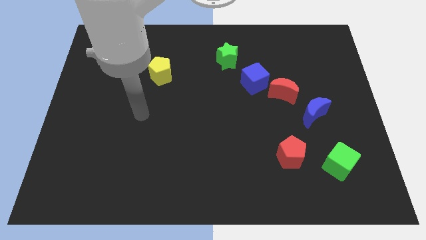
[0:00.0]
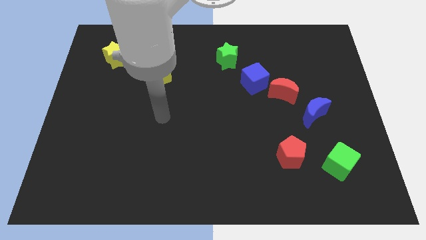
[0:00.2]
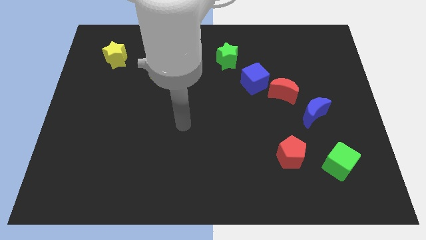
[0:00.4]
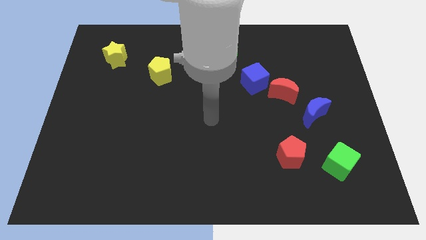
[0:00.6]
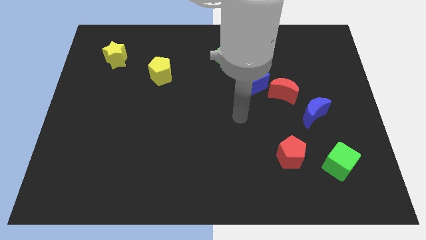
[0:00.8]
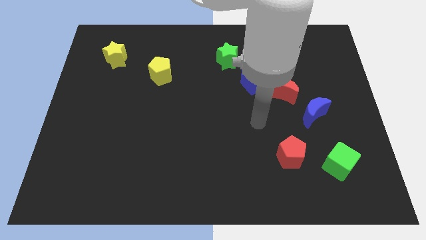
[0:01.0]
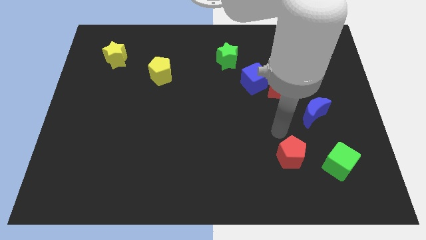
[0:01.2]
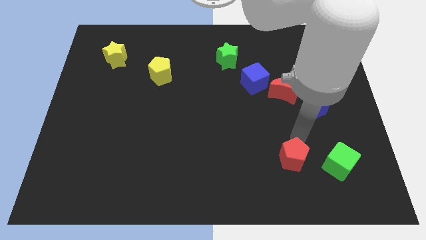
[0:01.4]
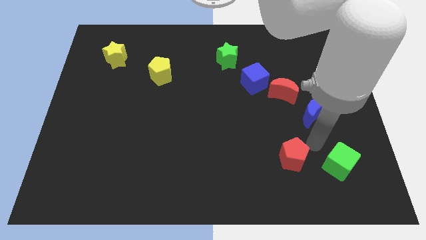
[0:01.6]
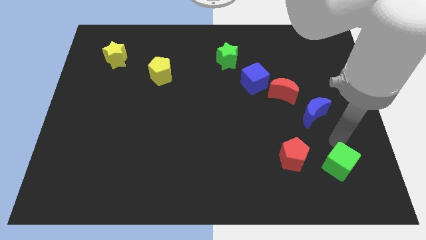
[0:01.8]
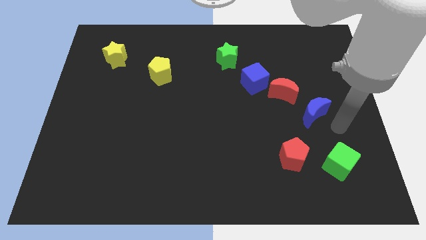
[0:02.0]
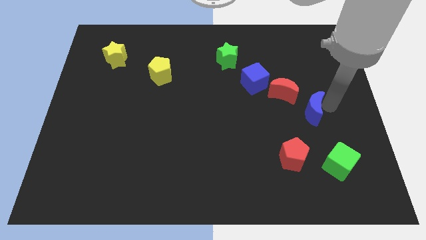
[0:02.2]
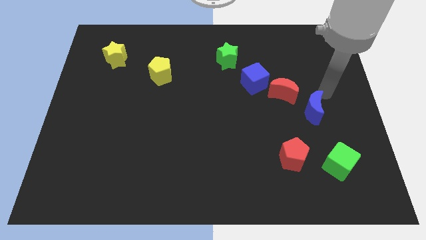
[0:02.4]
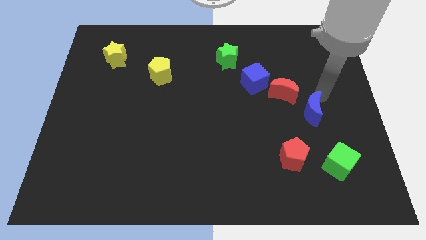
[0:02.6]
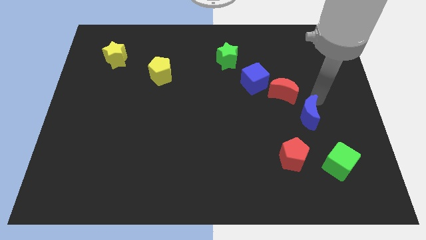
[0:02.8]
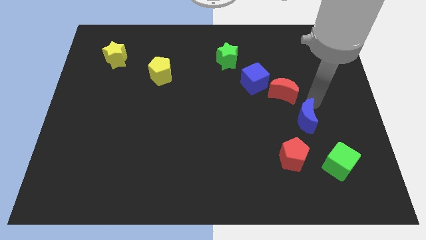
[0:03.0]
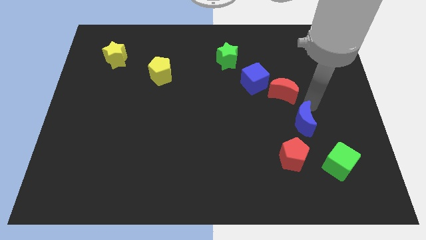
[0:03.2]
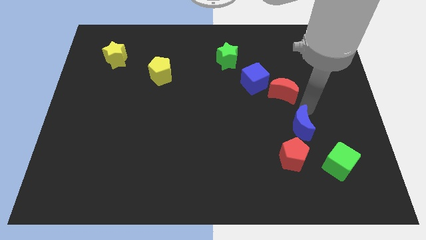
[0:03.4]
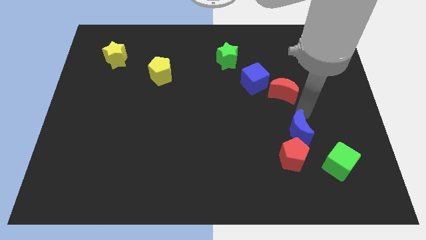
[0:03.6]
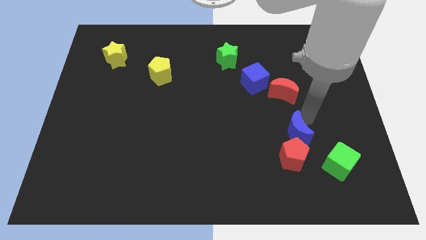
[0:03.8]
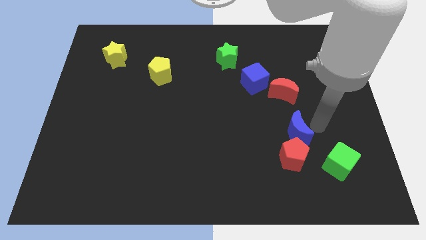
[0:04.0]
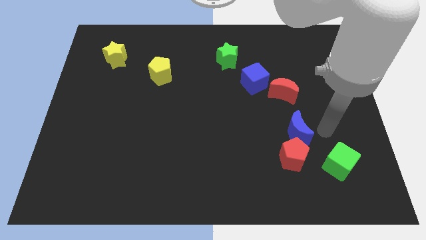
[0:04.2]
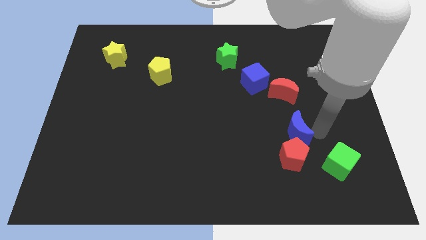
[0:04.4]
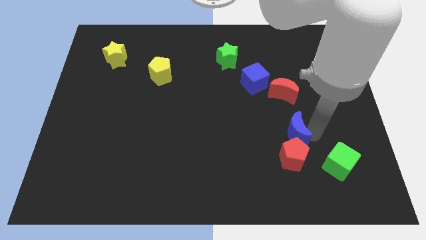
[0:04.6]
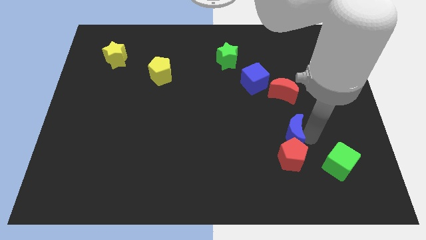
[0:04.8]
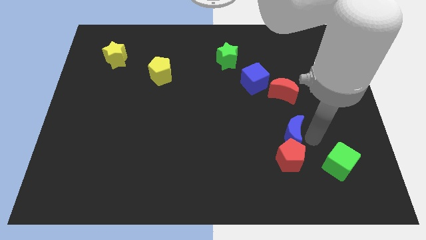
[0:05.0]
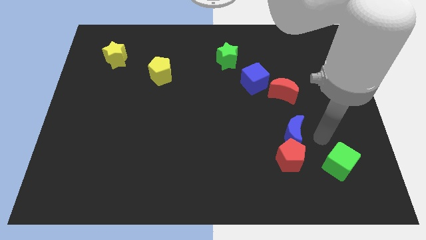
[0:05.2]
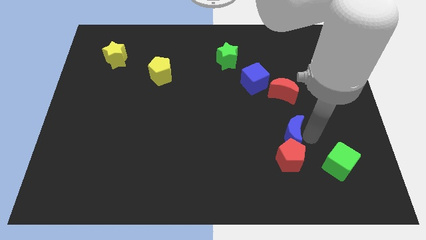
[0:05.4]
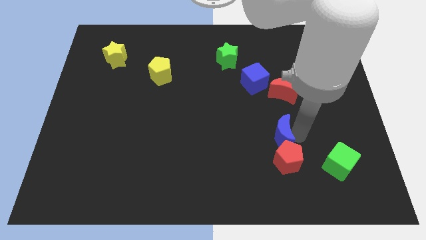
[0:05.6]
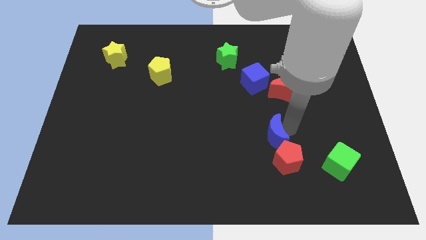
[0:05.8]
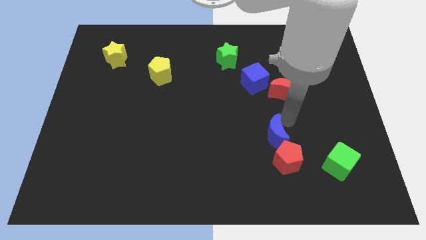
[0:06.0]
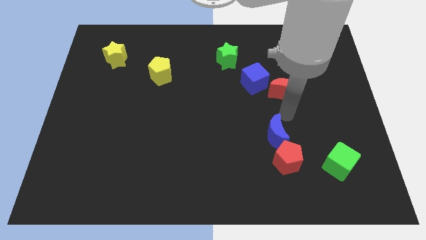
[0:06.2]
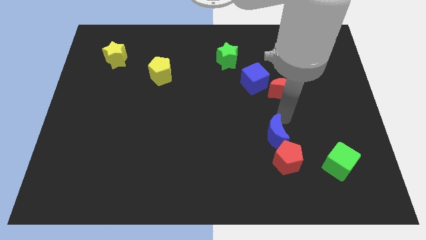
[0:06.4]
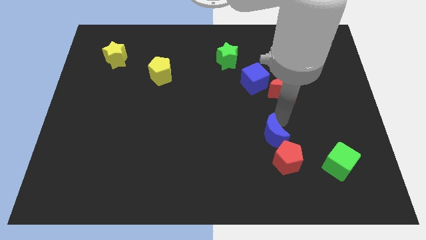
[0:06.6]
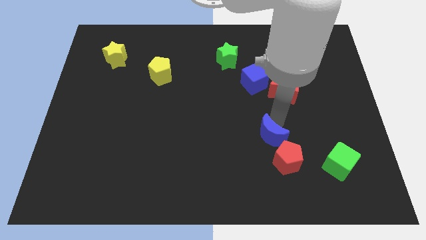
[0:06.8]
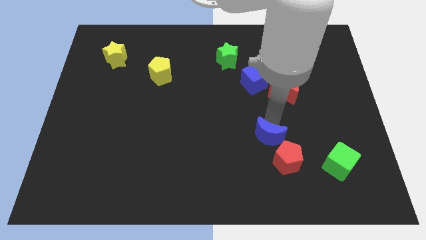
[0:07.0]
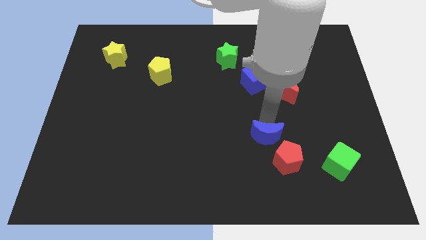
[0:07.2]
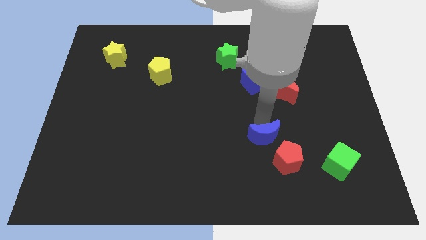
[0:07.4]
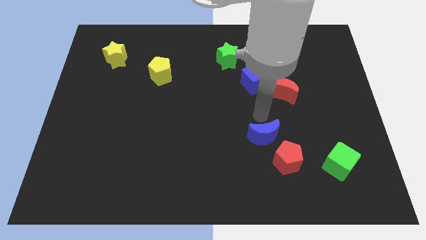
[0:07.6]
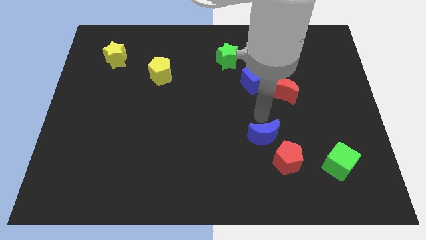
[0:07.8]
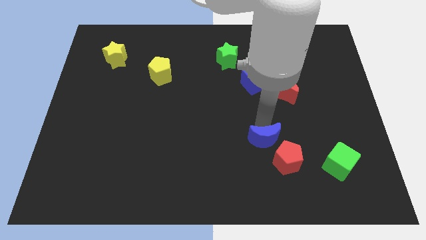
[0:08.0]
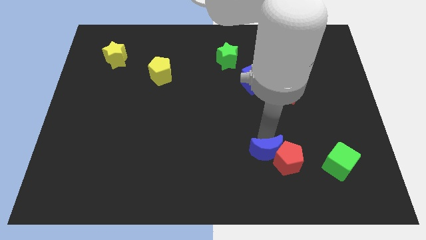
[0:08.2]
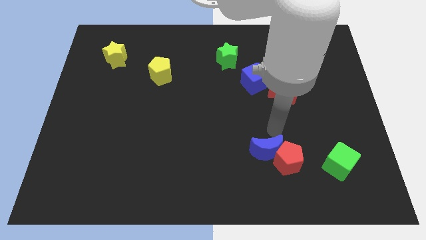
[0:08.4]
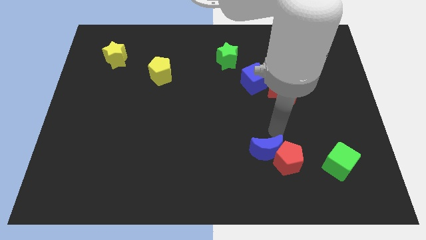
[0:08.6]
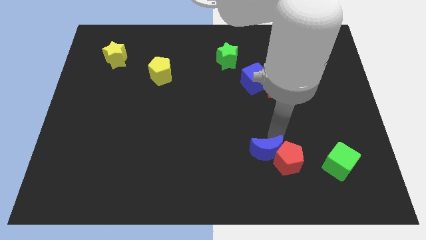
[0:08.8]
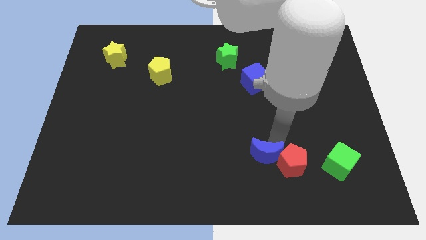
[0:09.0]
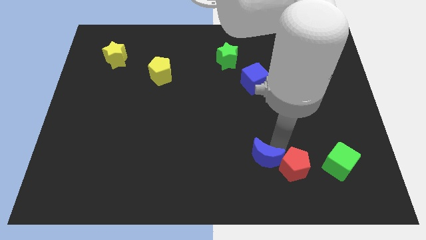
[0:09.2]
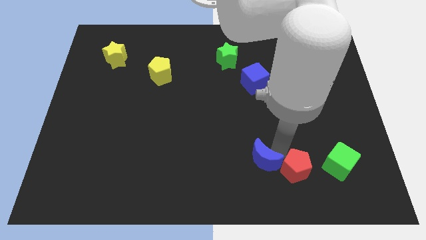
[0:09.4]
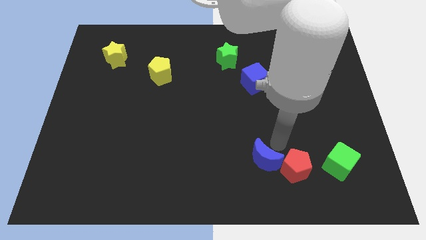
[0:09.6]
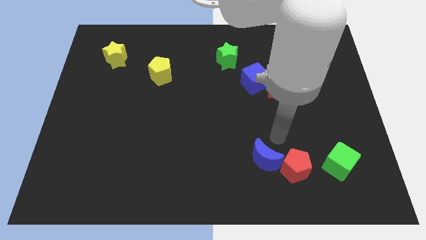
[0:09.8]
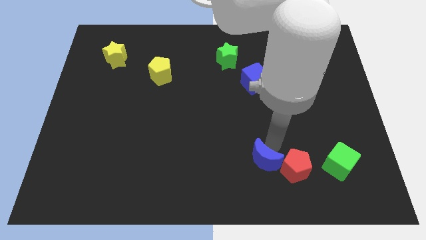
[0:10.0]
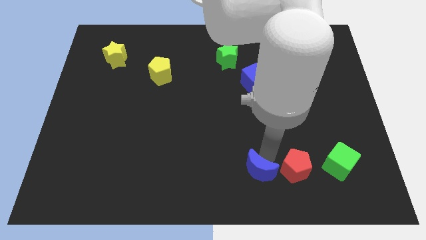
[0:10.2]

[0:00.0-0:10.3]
move the blue moon to the bottom
